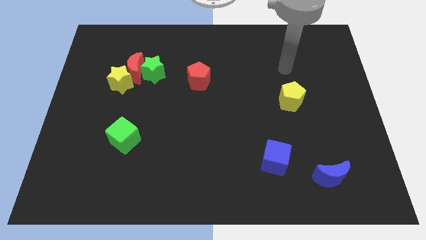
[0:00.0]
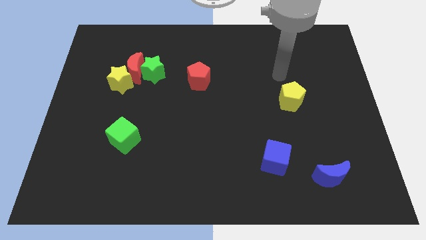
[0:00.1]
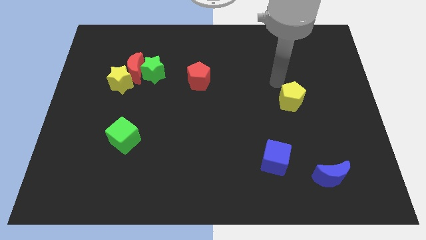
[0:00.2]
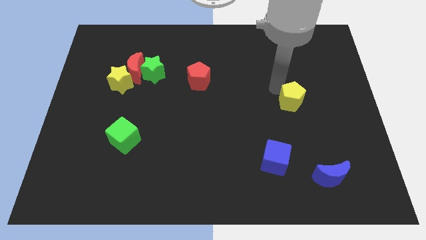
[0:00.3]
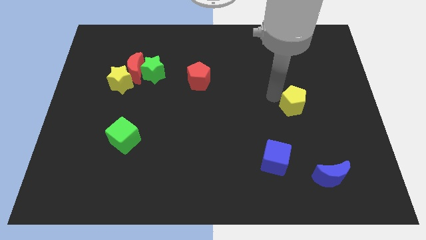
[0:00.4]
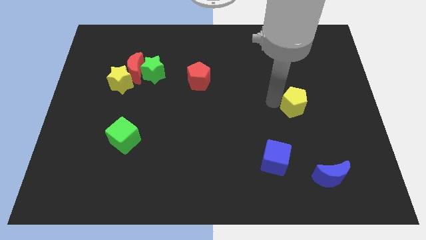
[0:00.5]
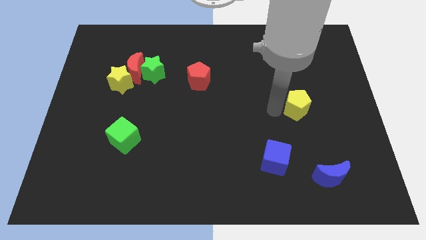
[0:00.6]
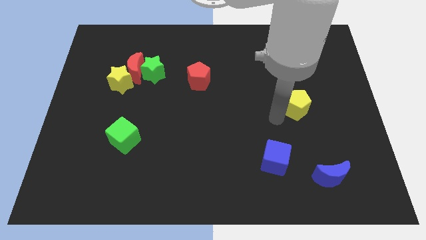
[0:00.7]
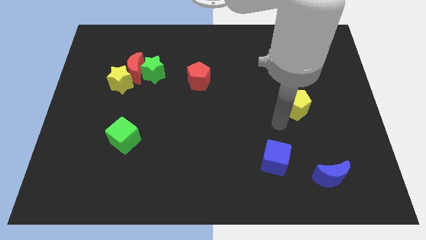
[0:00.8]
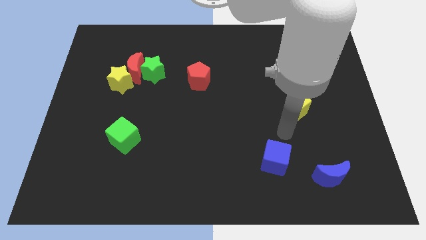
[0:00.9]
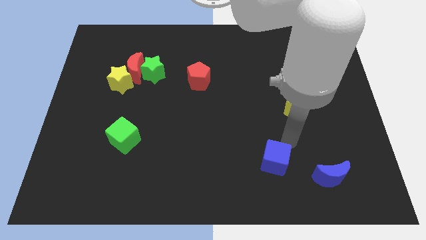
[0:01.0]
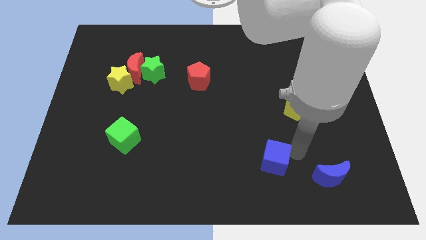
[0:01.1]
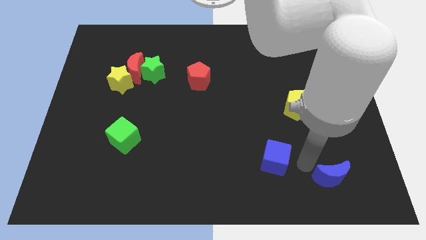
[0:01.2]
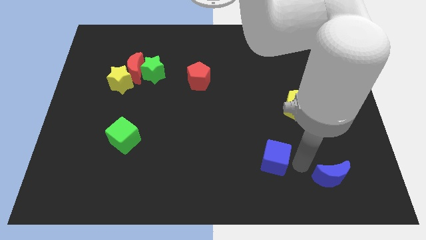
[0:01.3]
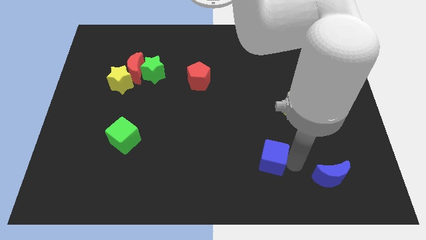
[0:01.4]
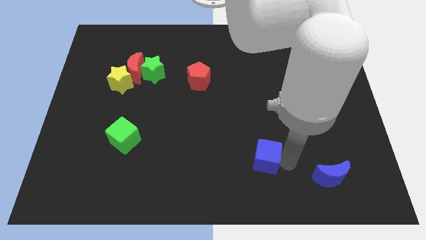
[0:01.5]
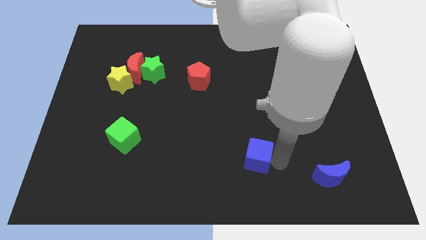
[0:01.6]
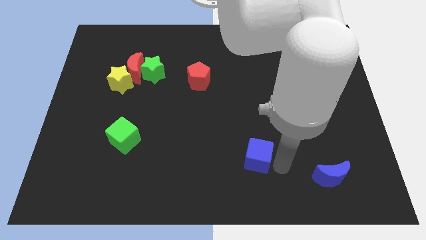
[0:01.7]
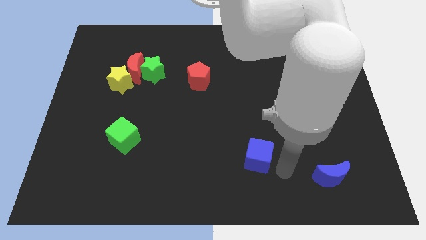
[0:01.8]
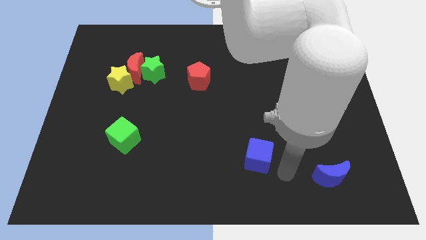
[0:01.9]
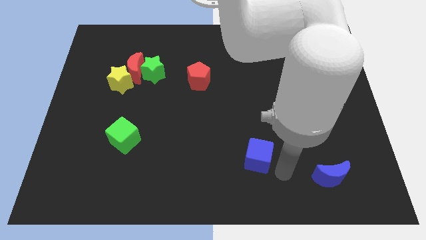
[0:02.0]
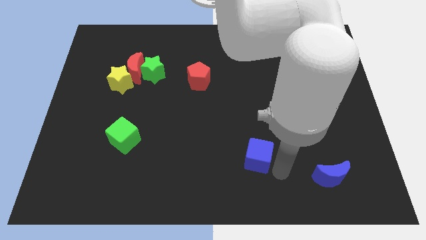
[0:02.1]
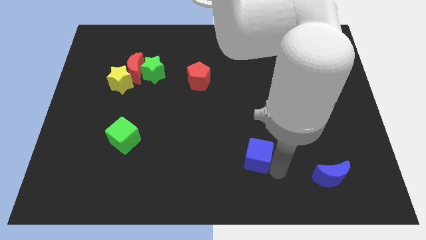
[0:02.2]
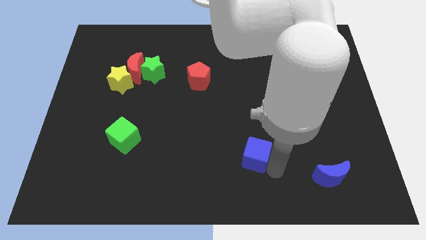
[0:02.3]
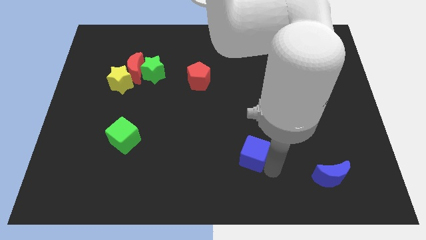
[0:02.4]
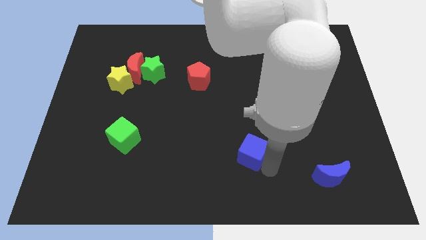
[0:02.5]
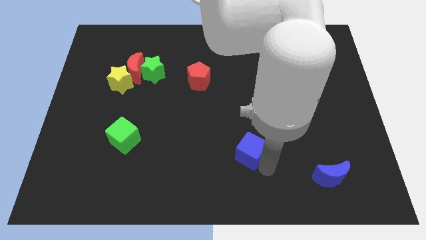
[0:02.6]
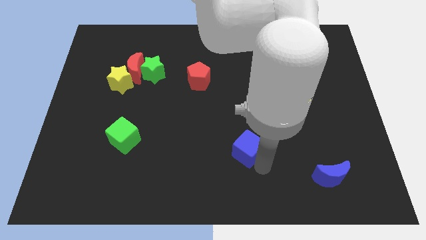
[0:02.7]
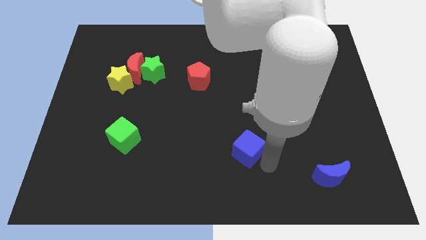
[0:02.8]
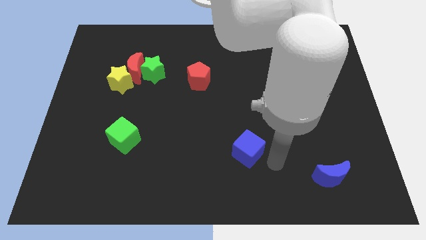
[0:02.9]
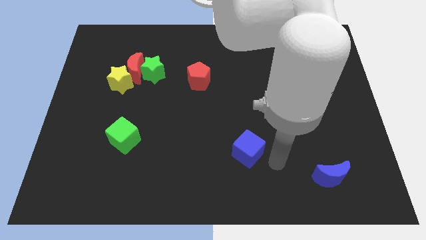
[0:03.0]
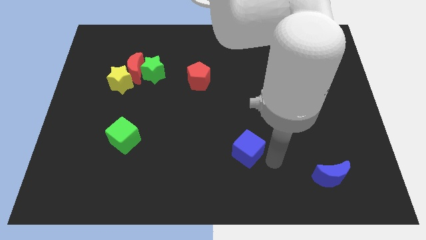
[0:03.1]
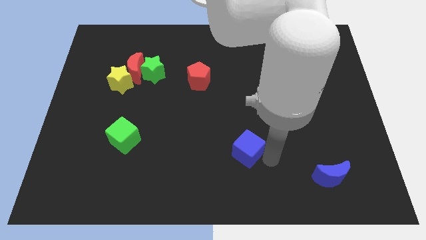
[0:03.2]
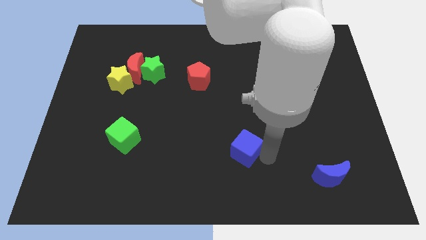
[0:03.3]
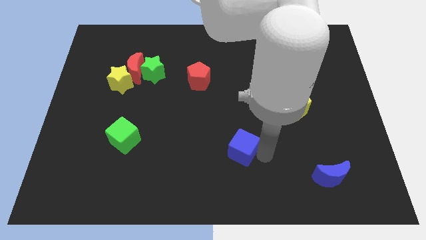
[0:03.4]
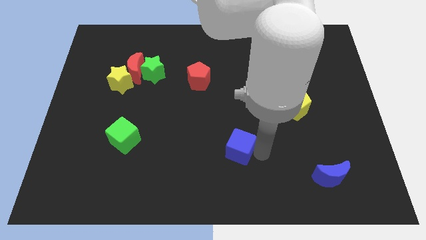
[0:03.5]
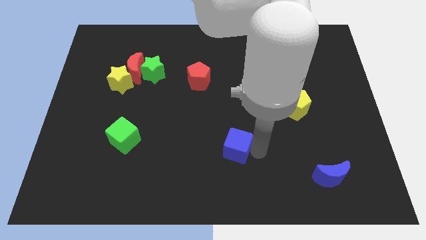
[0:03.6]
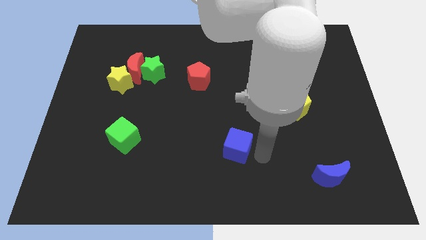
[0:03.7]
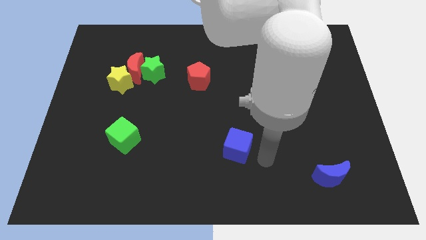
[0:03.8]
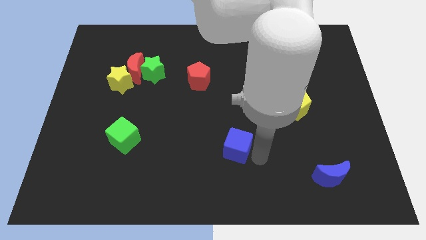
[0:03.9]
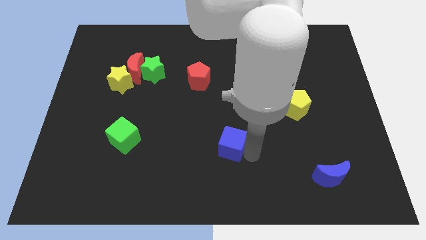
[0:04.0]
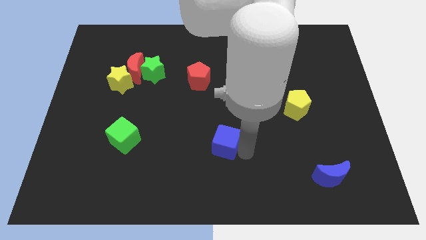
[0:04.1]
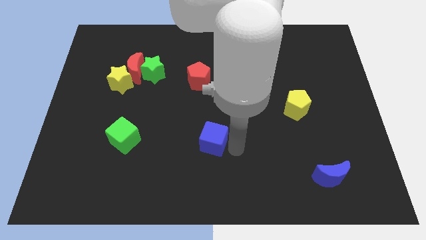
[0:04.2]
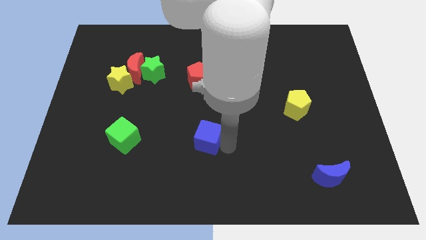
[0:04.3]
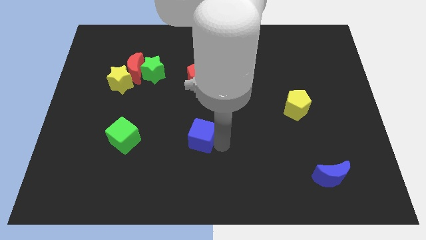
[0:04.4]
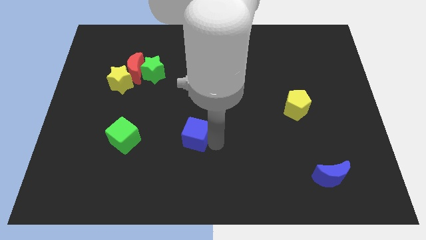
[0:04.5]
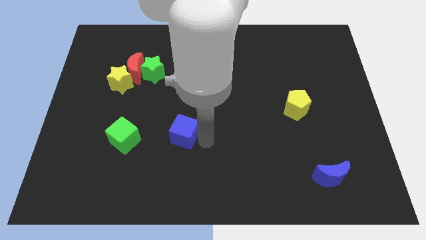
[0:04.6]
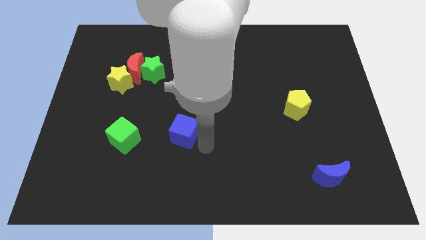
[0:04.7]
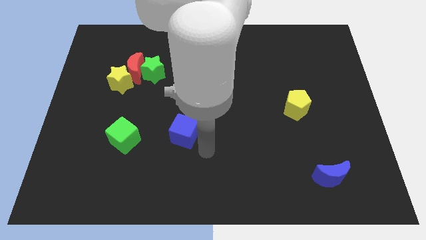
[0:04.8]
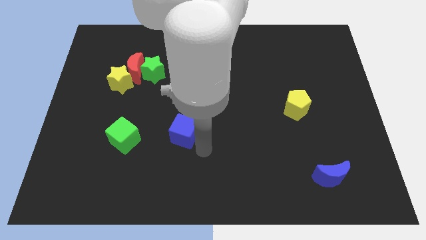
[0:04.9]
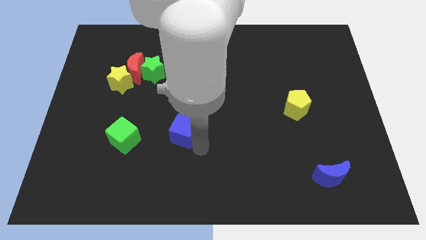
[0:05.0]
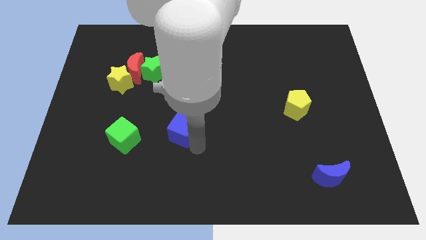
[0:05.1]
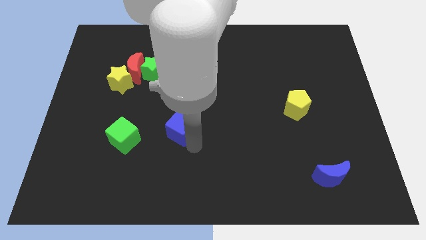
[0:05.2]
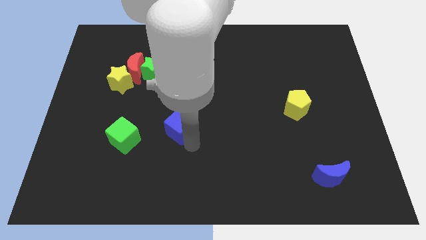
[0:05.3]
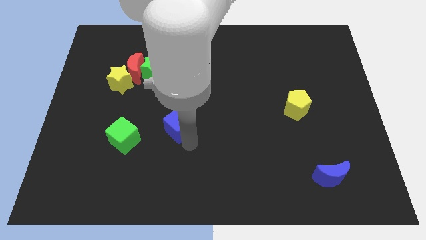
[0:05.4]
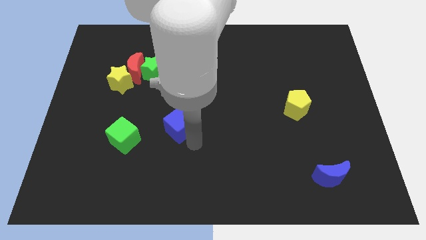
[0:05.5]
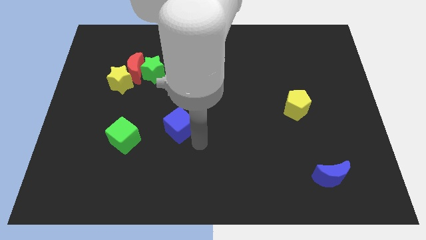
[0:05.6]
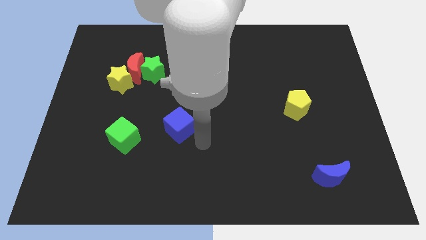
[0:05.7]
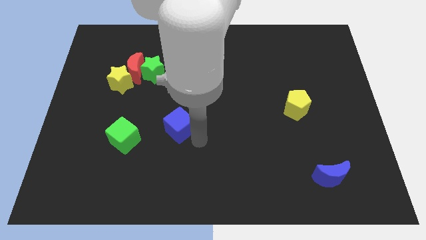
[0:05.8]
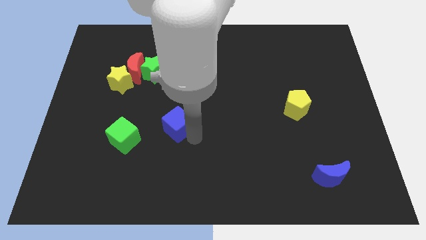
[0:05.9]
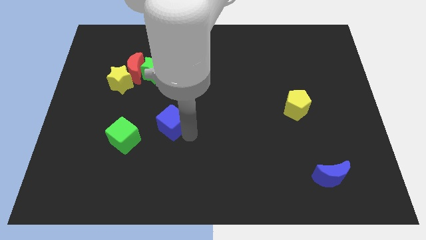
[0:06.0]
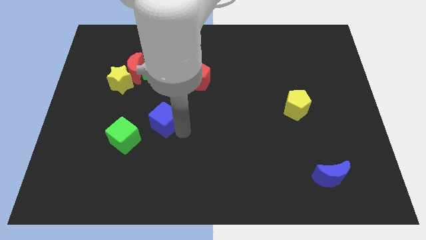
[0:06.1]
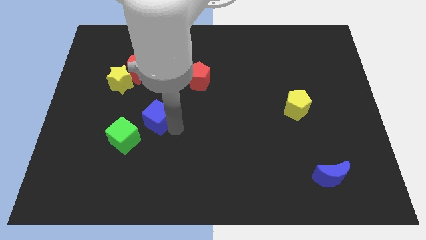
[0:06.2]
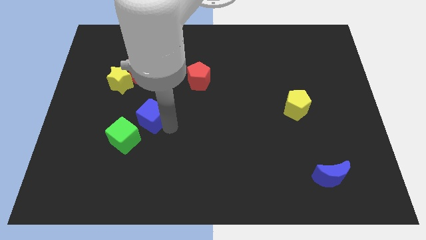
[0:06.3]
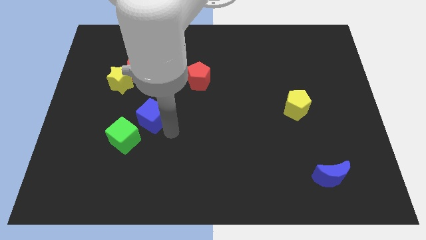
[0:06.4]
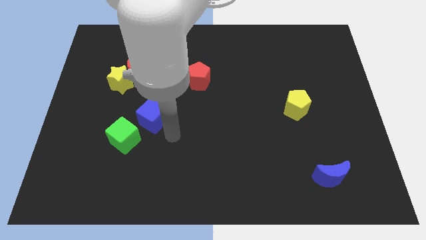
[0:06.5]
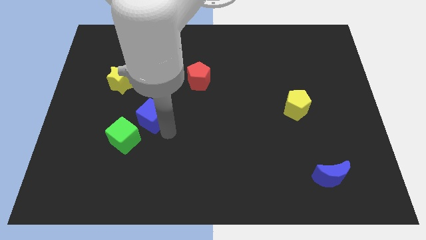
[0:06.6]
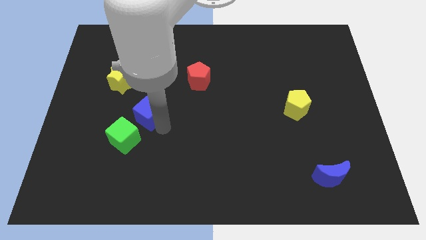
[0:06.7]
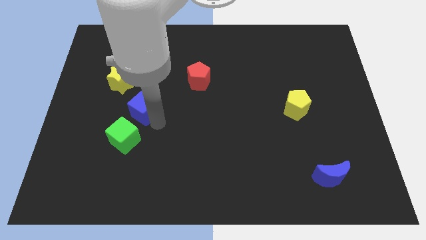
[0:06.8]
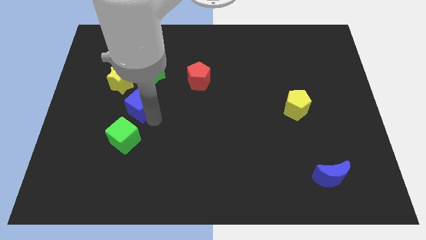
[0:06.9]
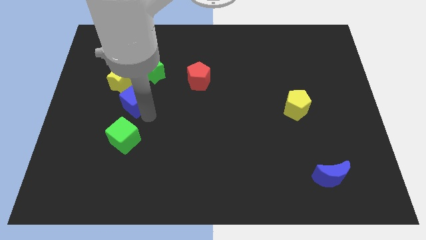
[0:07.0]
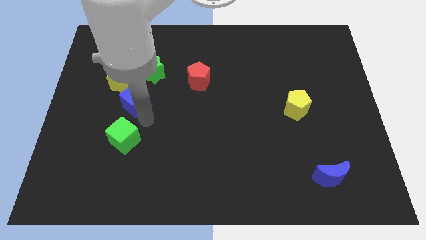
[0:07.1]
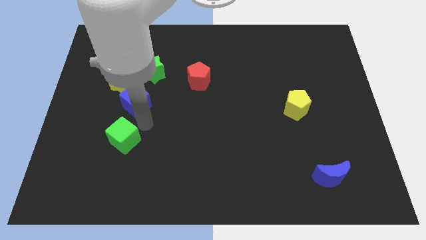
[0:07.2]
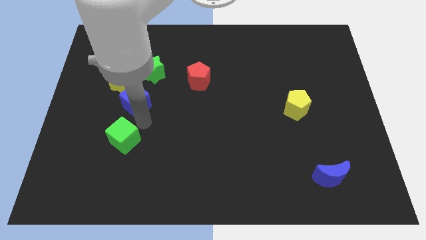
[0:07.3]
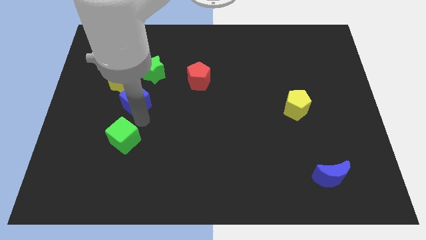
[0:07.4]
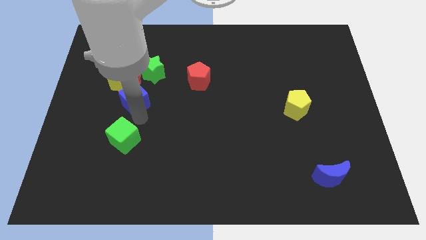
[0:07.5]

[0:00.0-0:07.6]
push the blue cube to the bottom left side of the green star

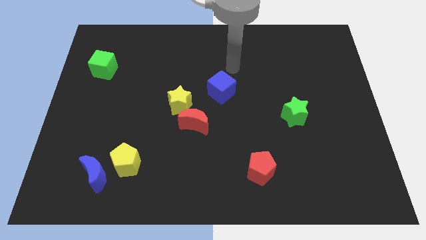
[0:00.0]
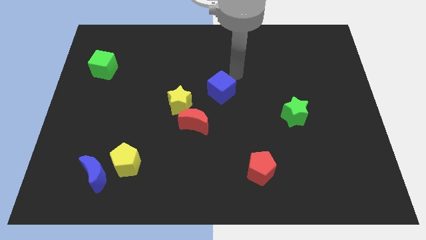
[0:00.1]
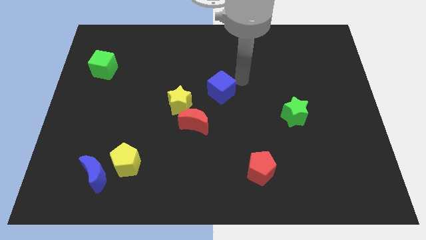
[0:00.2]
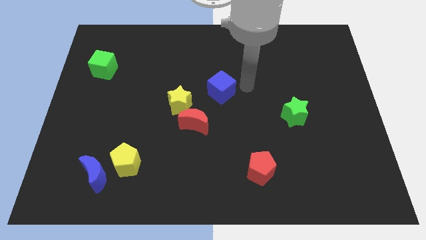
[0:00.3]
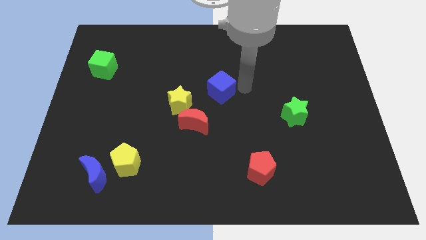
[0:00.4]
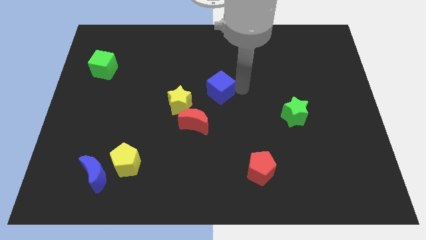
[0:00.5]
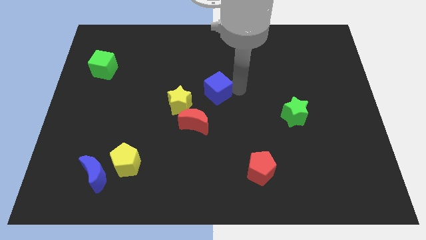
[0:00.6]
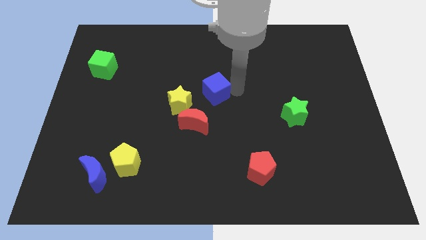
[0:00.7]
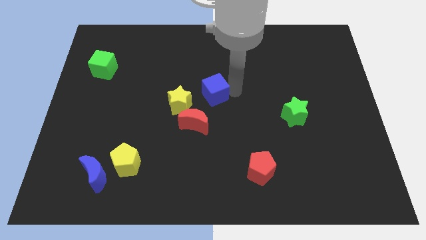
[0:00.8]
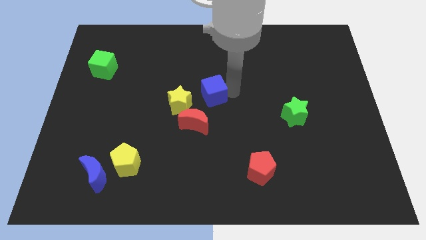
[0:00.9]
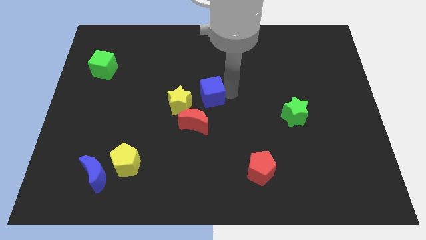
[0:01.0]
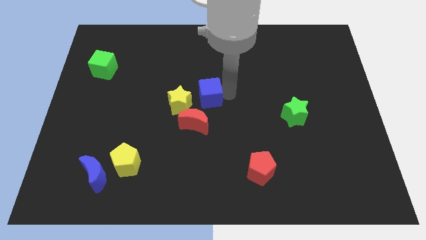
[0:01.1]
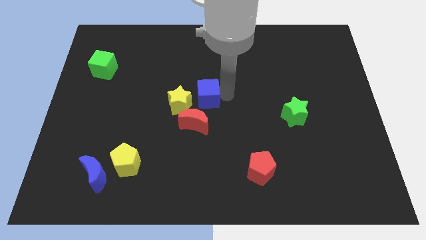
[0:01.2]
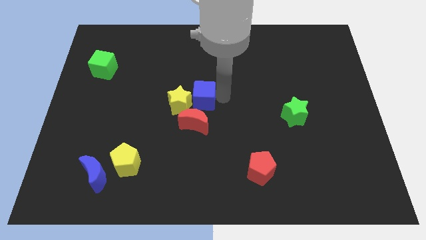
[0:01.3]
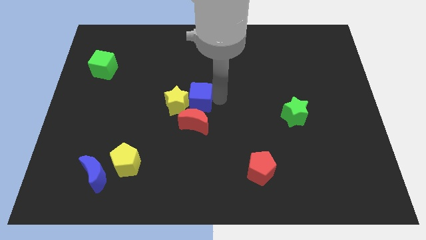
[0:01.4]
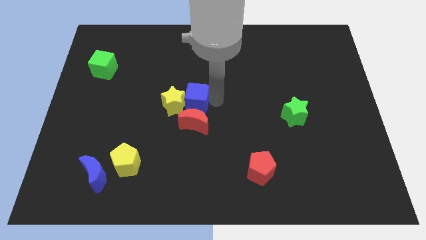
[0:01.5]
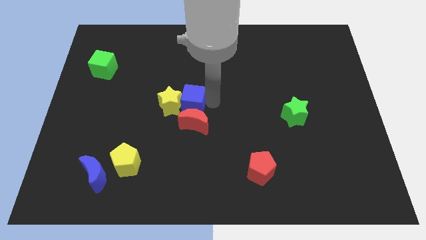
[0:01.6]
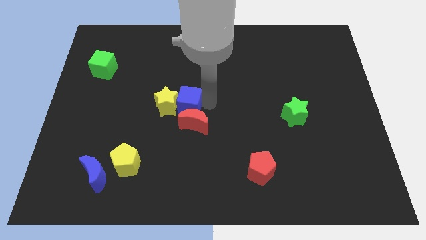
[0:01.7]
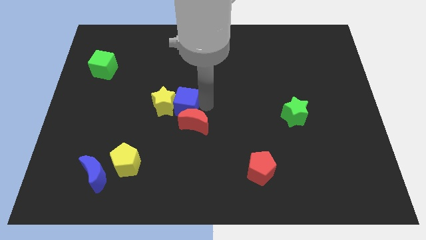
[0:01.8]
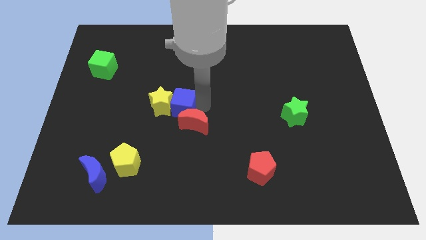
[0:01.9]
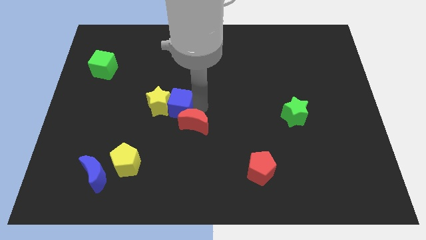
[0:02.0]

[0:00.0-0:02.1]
slide the blue cube to the left of the red moon
